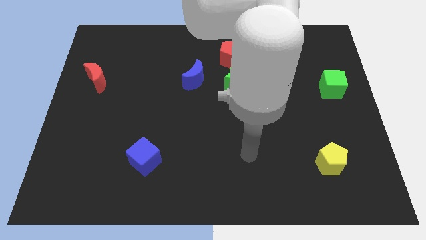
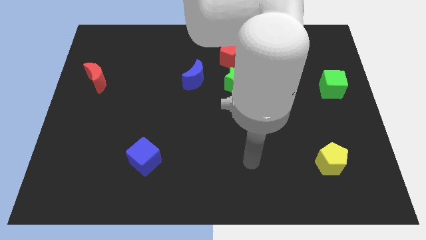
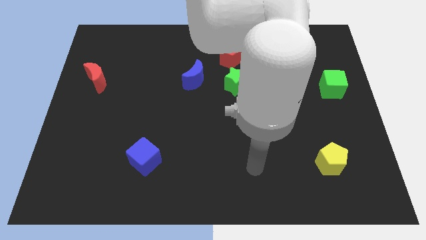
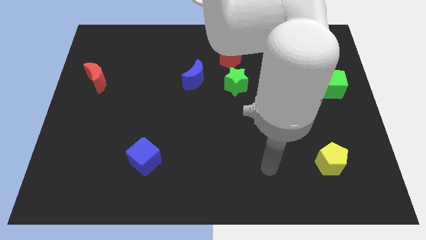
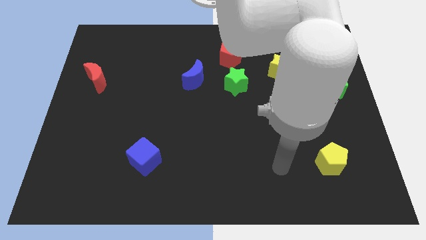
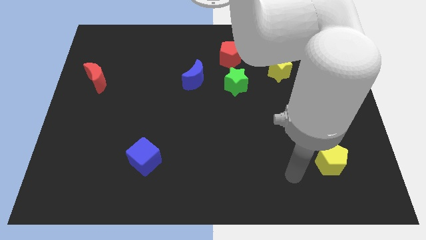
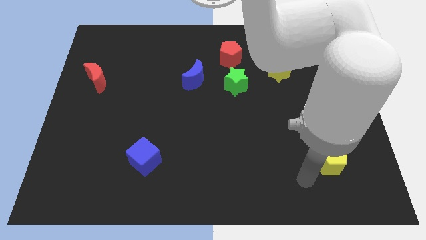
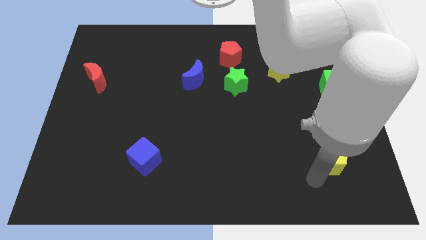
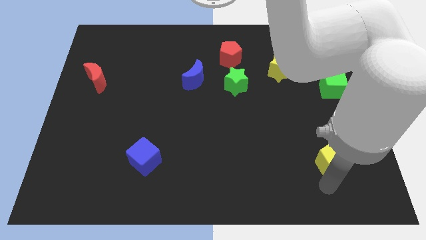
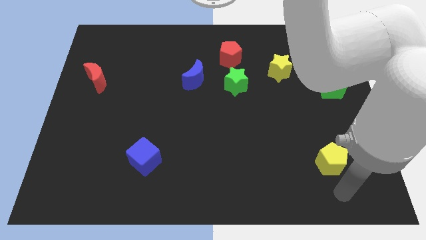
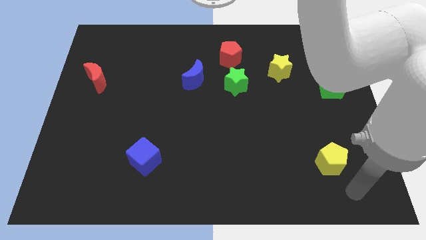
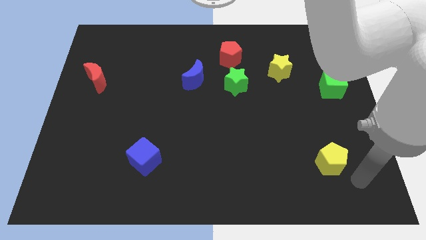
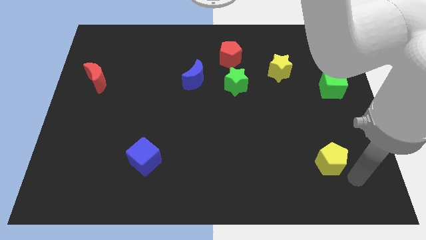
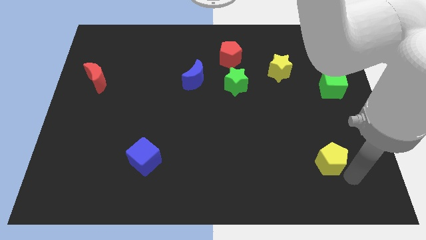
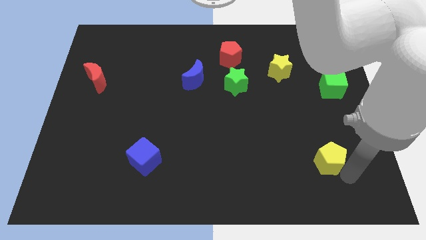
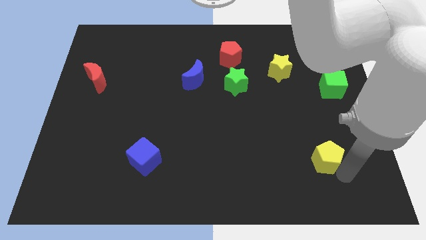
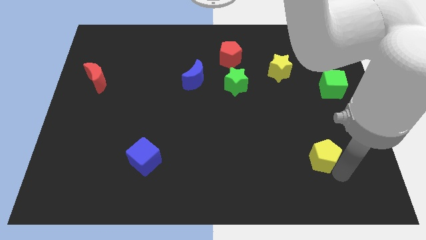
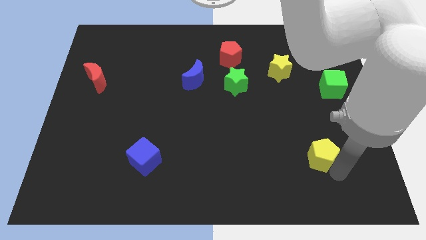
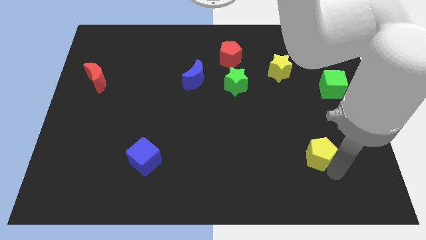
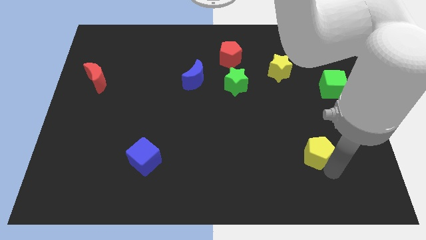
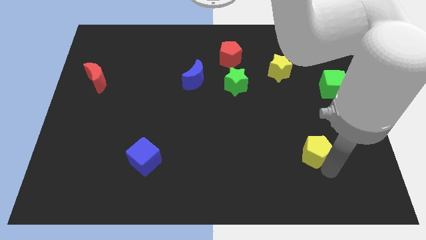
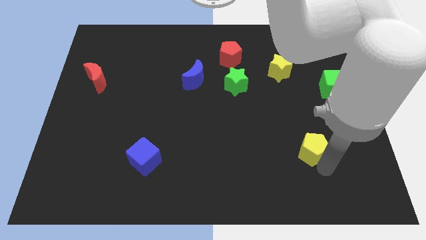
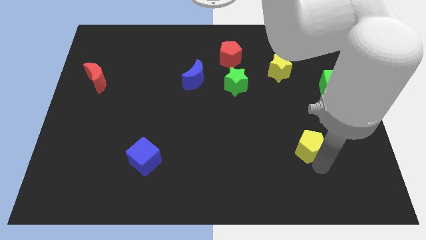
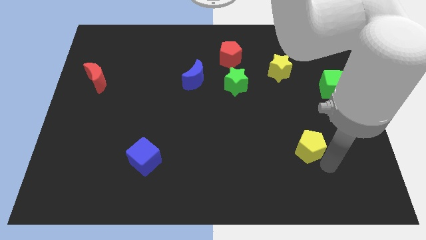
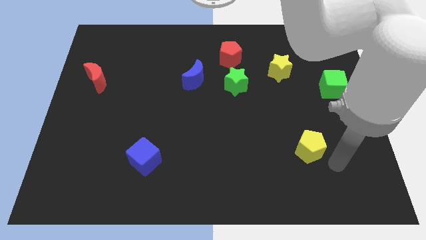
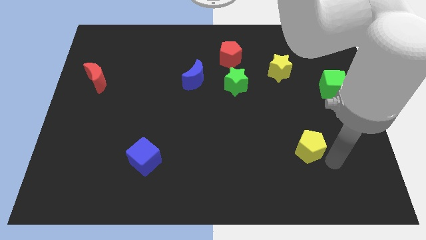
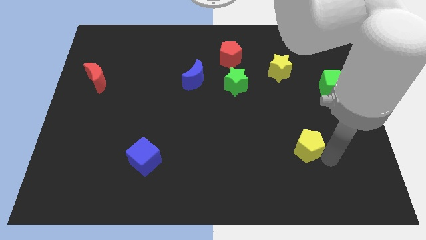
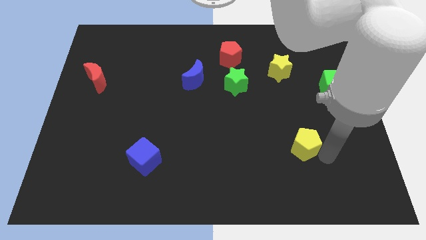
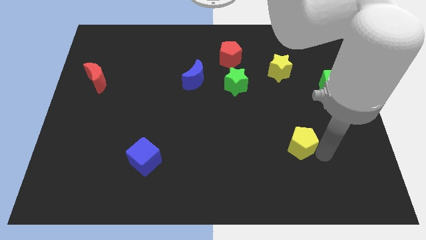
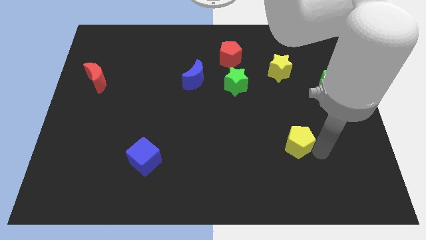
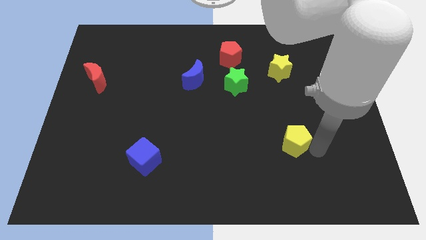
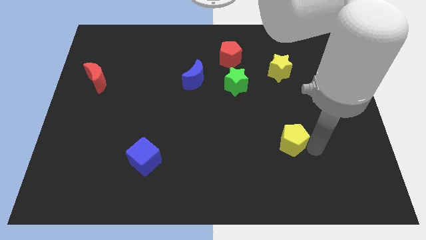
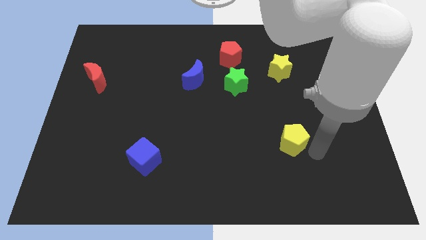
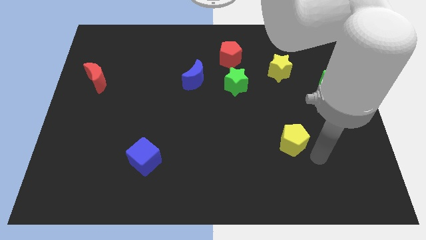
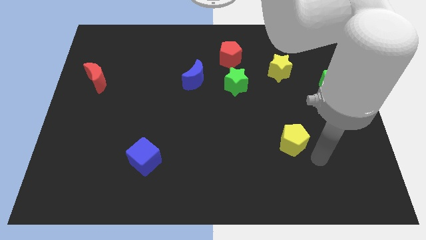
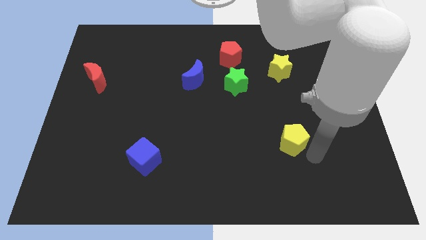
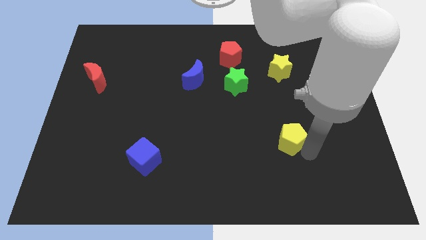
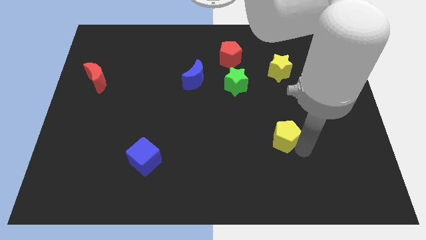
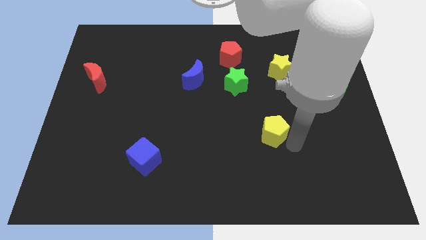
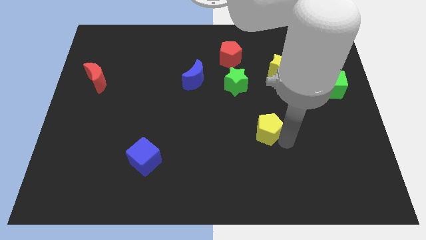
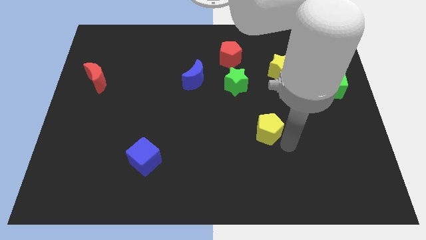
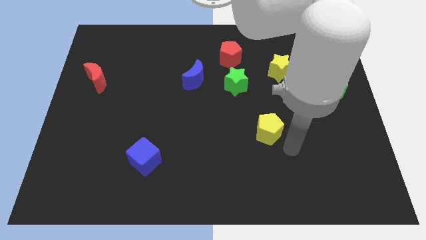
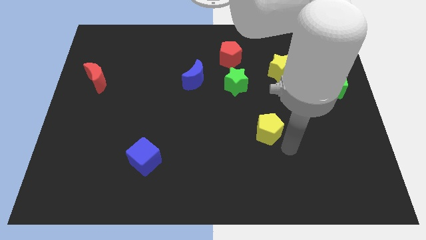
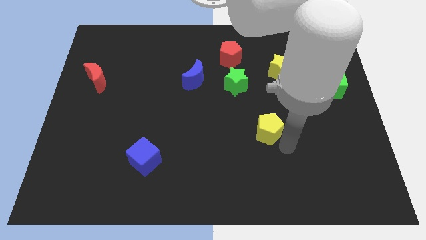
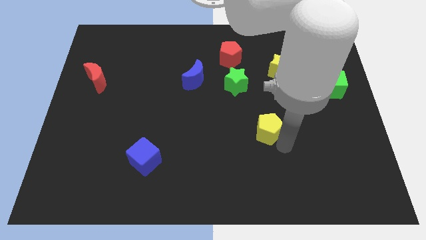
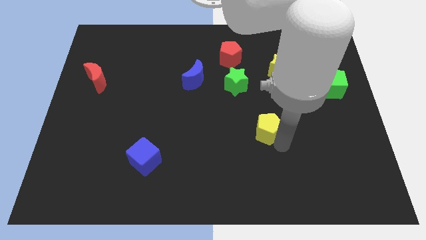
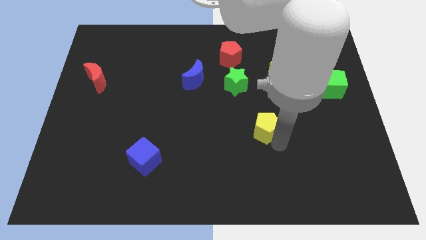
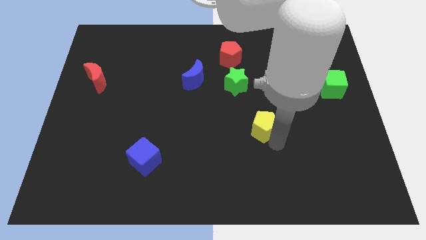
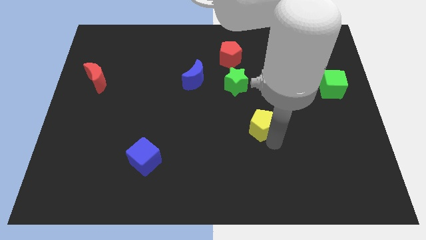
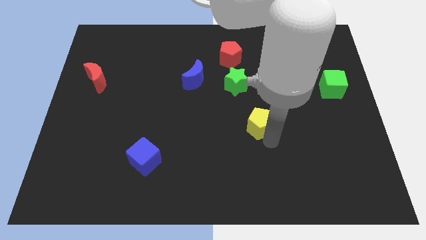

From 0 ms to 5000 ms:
put the yellow pentagon to the center of the board

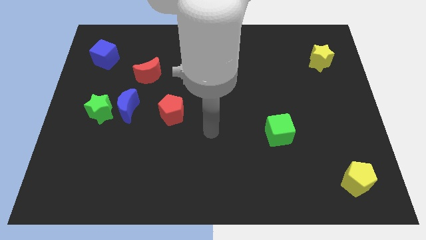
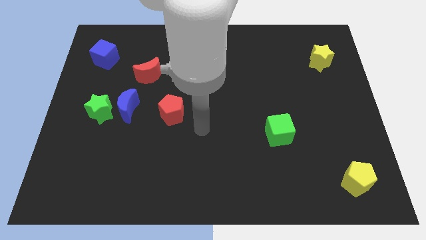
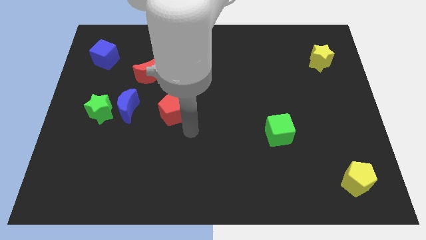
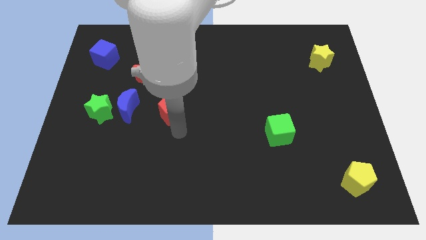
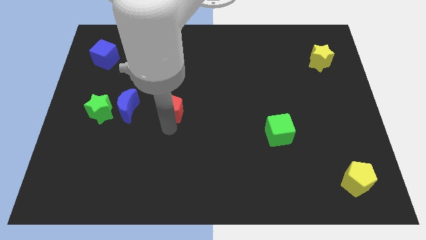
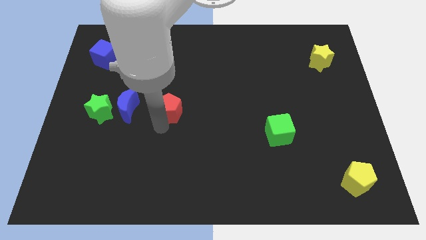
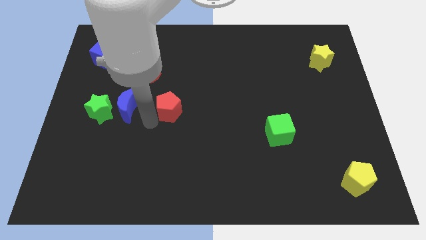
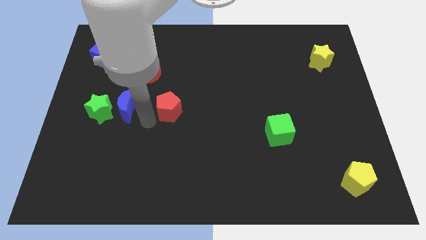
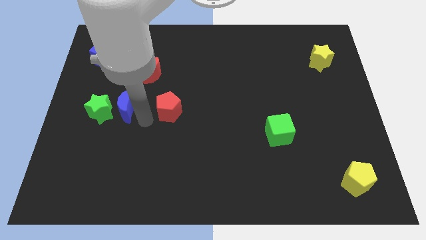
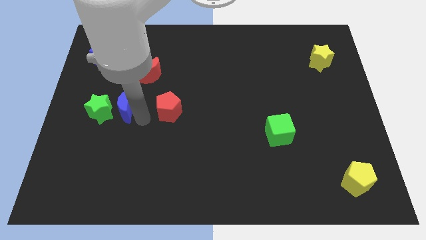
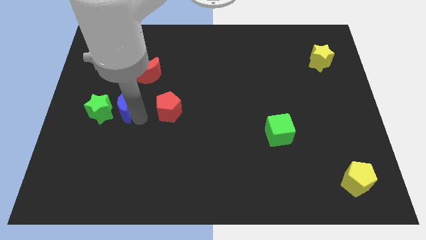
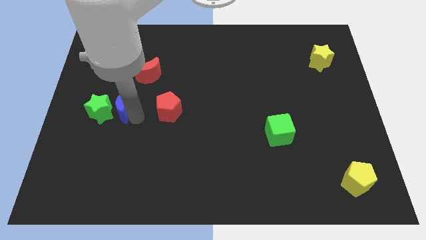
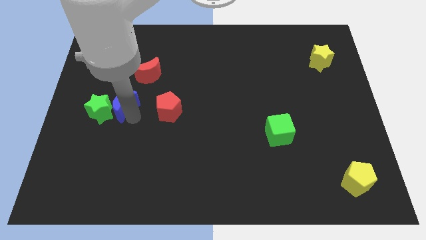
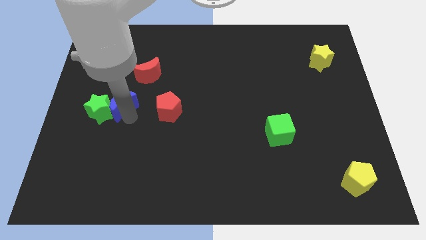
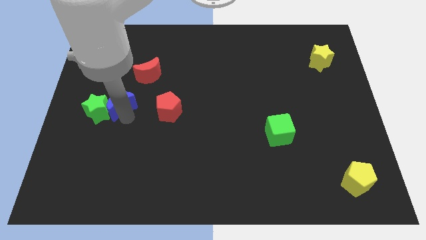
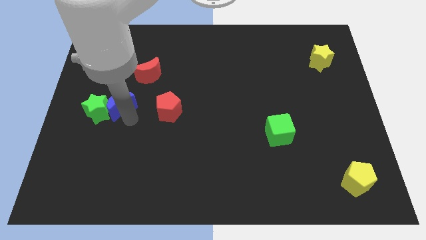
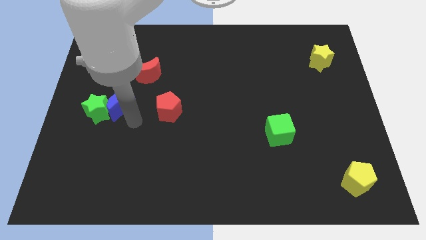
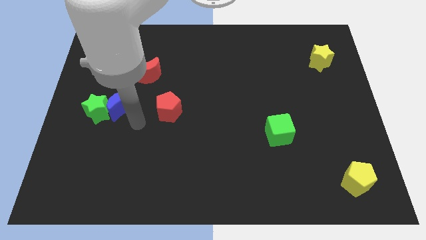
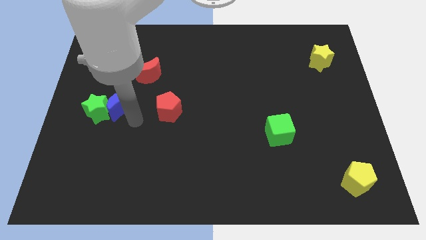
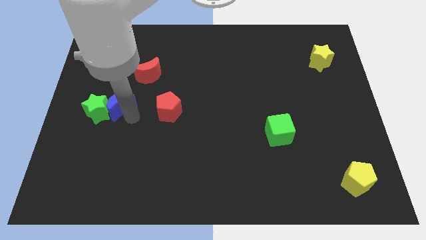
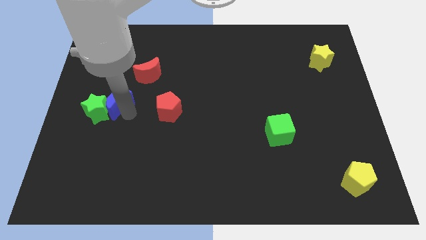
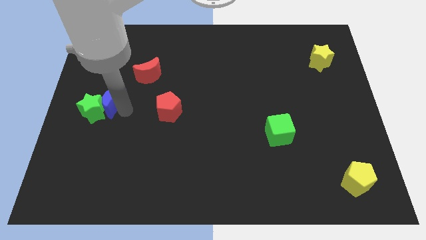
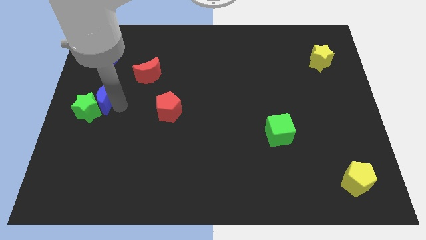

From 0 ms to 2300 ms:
move the blue moon to the left side
